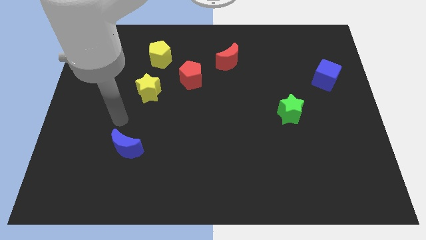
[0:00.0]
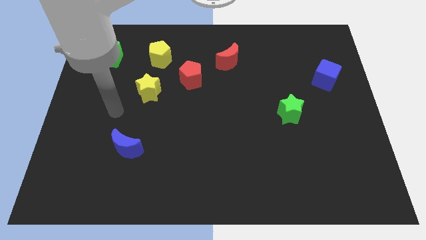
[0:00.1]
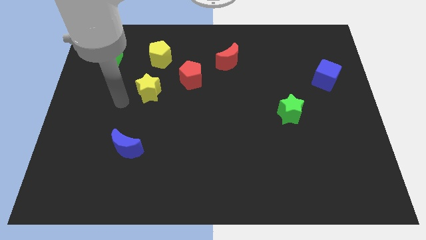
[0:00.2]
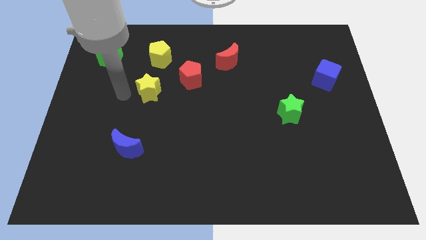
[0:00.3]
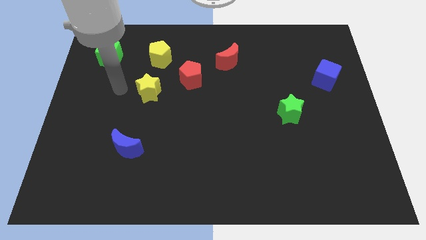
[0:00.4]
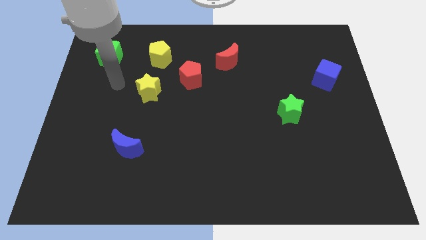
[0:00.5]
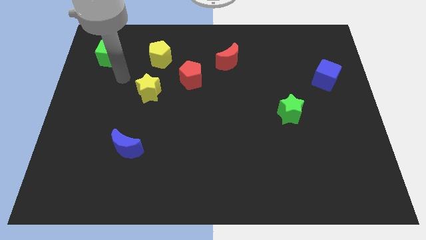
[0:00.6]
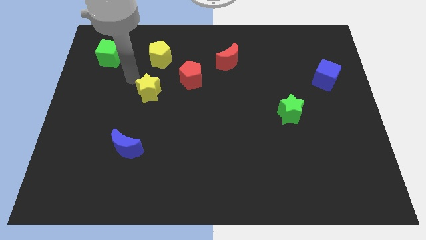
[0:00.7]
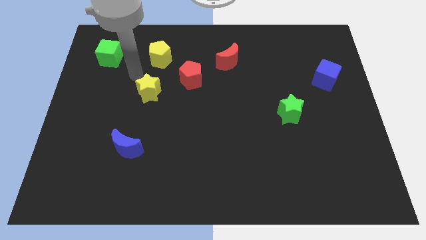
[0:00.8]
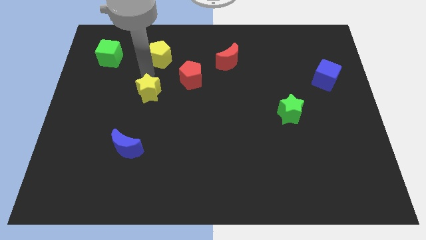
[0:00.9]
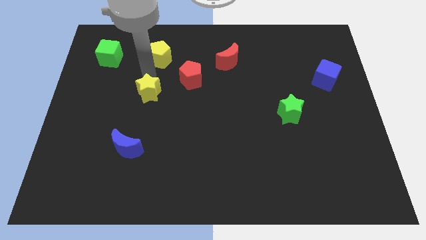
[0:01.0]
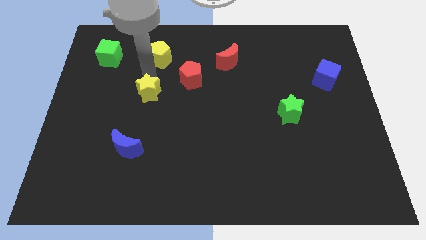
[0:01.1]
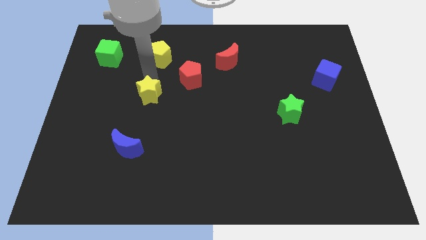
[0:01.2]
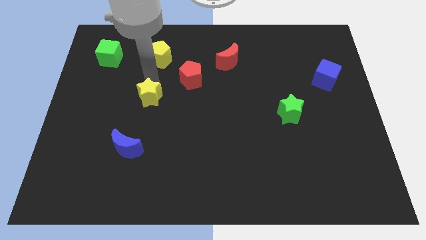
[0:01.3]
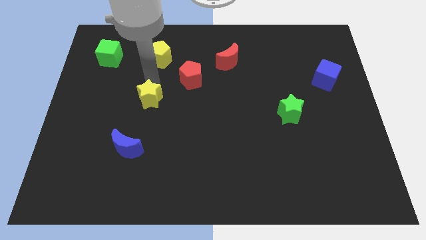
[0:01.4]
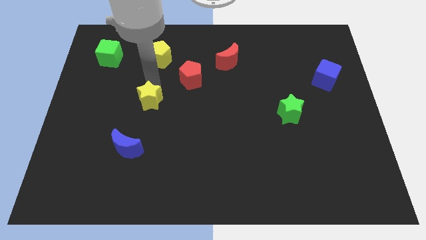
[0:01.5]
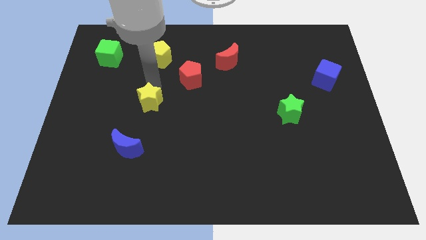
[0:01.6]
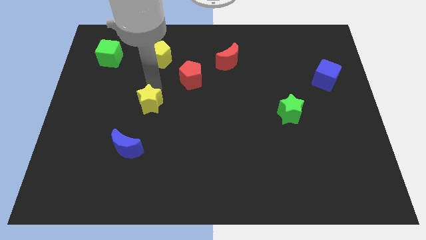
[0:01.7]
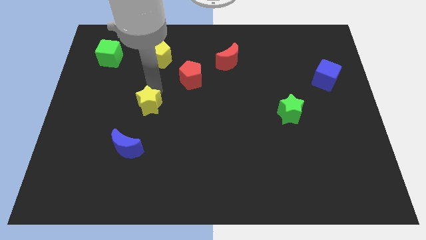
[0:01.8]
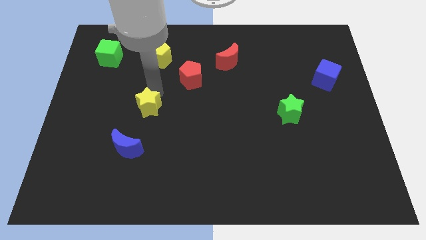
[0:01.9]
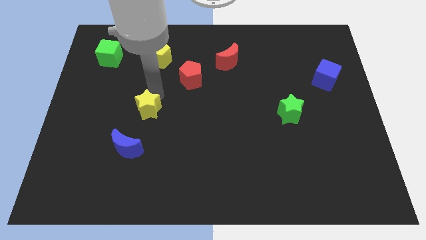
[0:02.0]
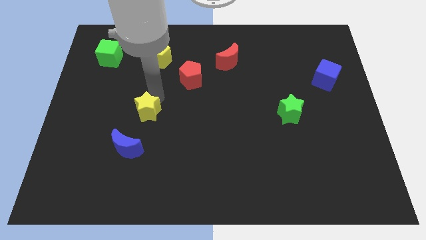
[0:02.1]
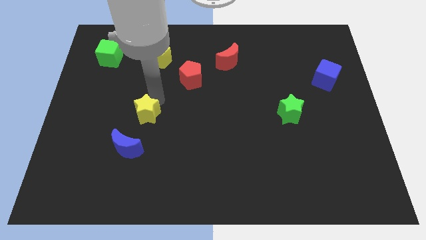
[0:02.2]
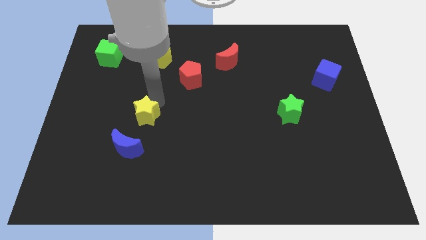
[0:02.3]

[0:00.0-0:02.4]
push the yellow star down a little

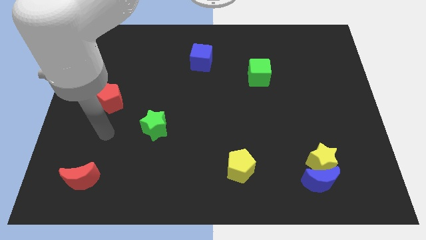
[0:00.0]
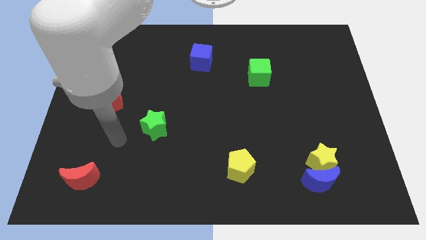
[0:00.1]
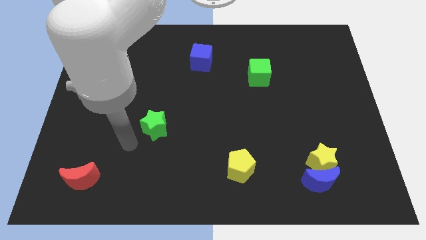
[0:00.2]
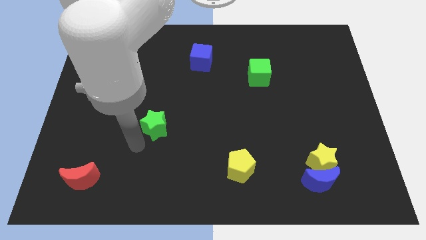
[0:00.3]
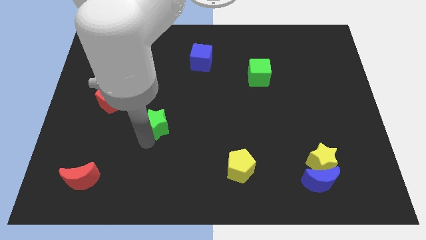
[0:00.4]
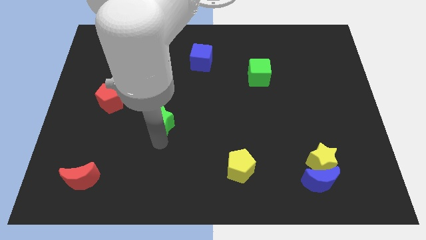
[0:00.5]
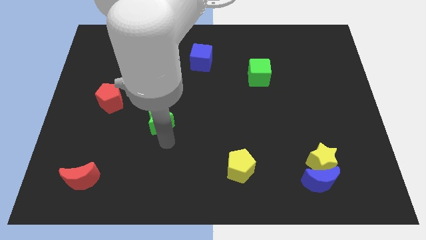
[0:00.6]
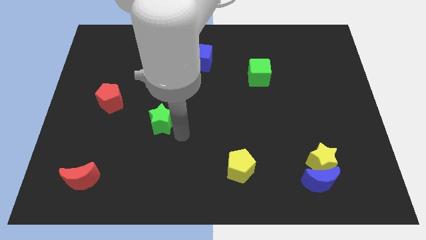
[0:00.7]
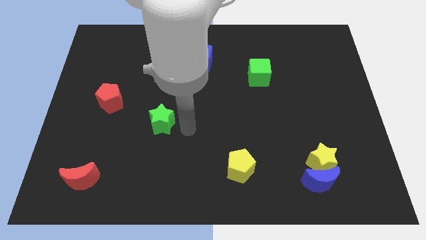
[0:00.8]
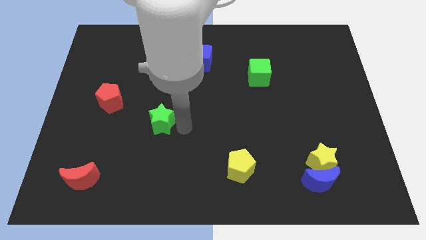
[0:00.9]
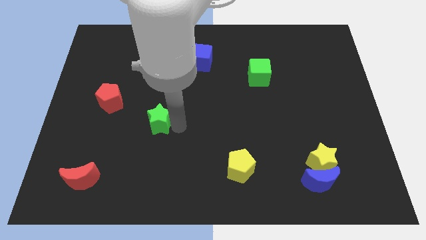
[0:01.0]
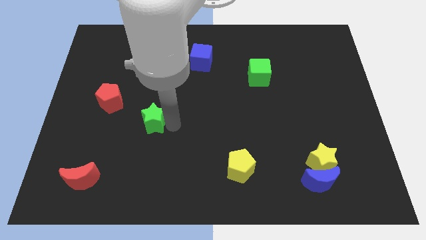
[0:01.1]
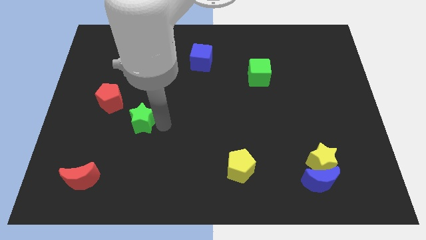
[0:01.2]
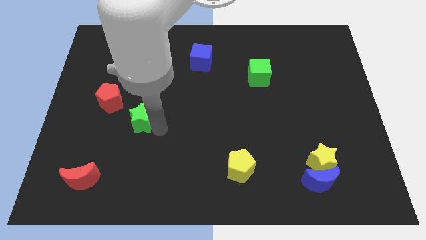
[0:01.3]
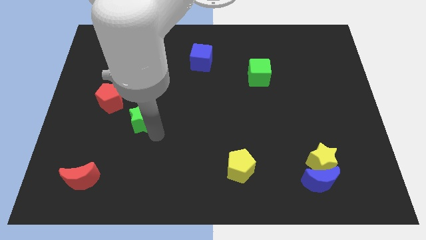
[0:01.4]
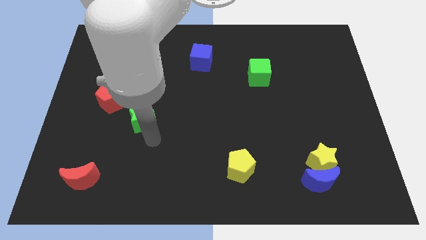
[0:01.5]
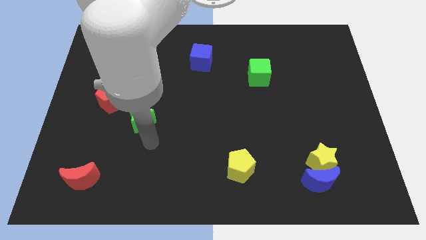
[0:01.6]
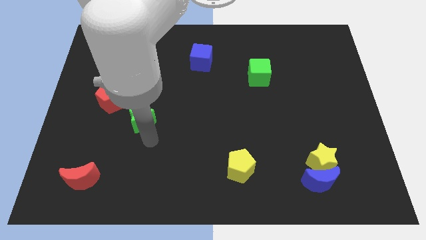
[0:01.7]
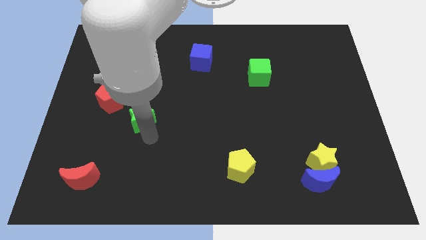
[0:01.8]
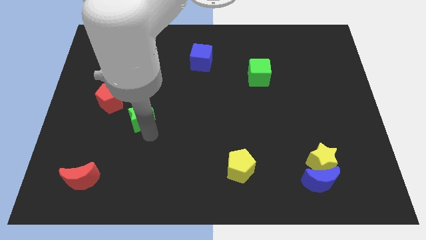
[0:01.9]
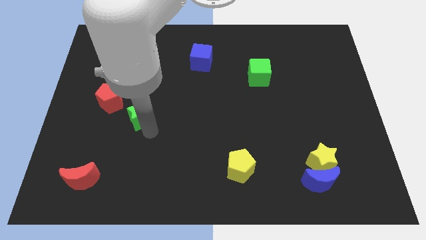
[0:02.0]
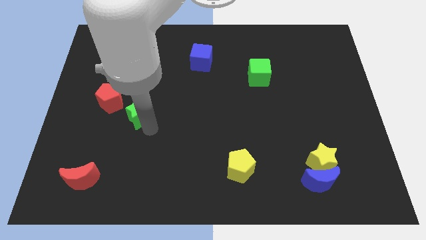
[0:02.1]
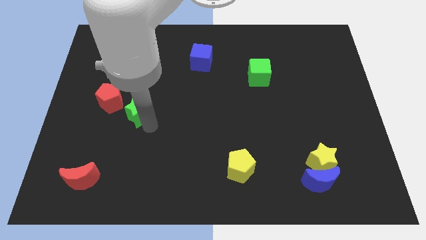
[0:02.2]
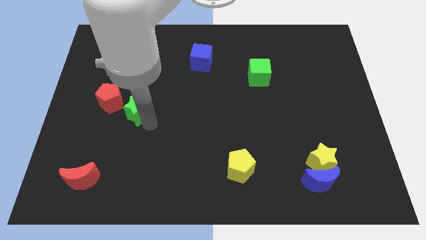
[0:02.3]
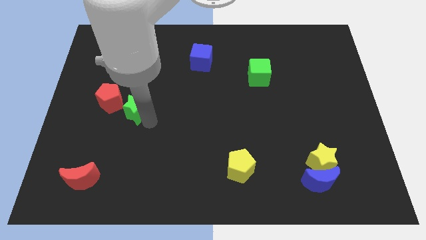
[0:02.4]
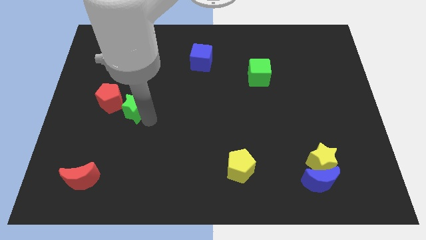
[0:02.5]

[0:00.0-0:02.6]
slide the green star a bit diagonally up and to the left

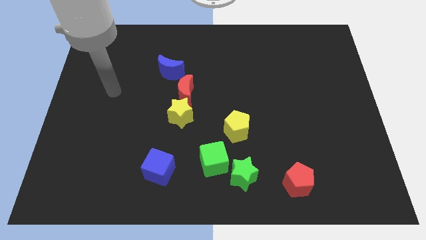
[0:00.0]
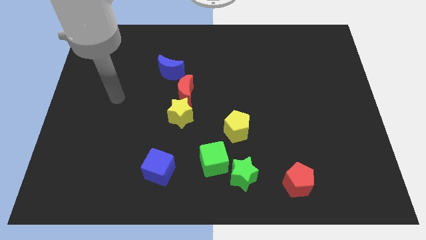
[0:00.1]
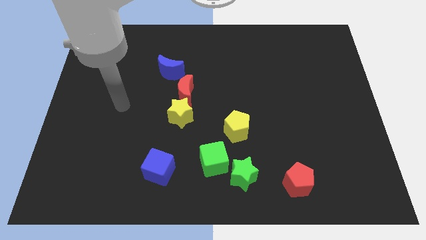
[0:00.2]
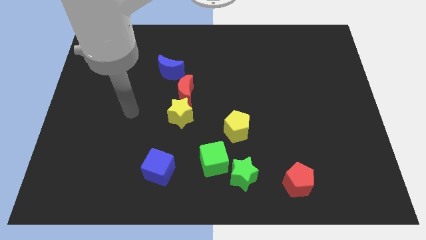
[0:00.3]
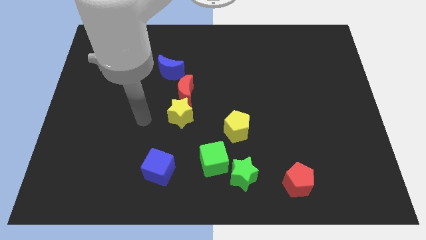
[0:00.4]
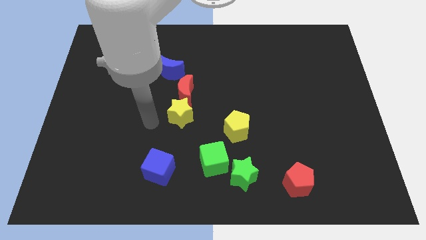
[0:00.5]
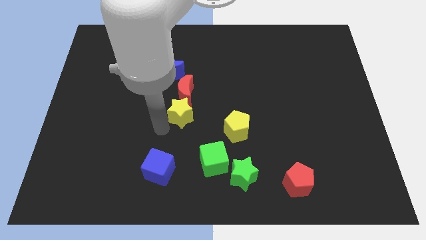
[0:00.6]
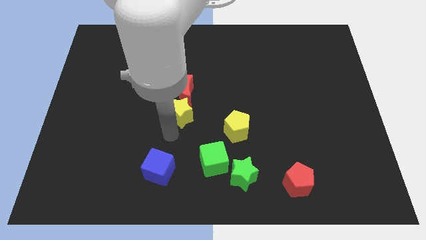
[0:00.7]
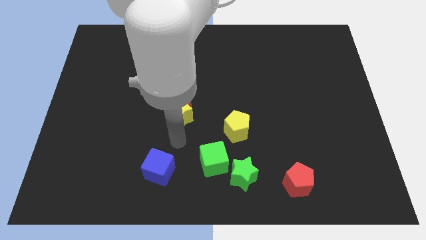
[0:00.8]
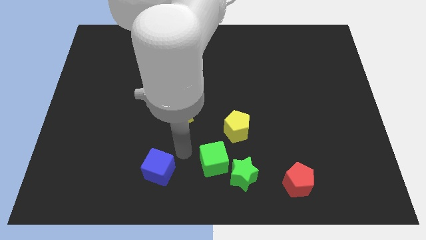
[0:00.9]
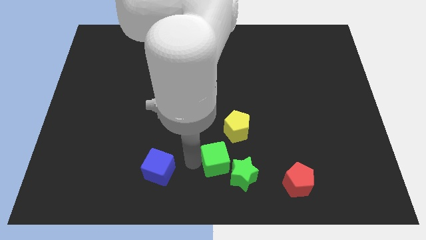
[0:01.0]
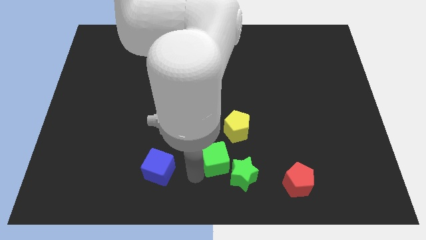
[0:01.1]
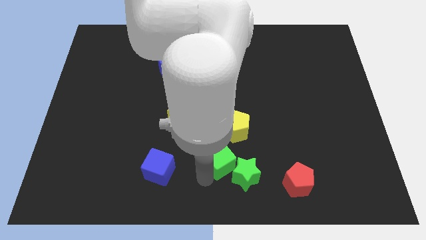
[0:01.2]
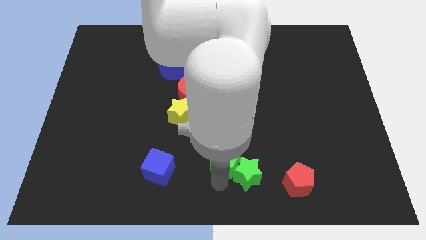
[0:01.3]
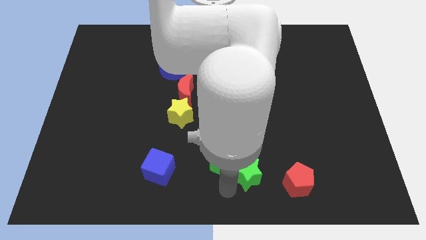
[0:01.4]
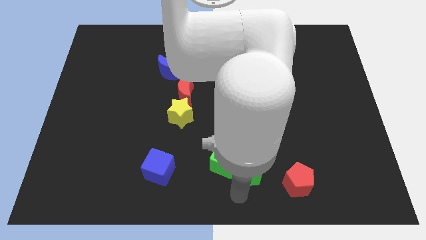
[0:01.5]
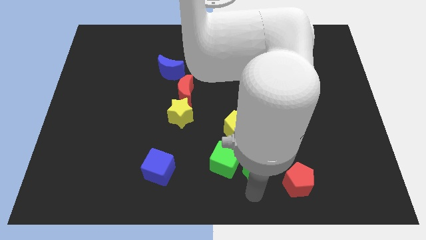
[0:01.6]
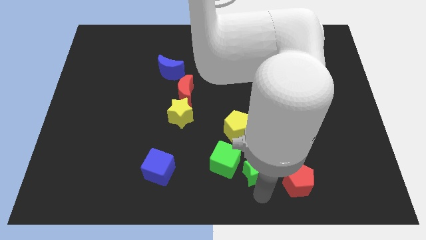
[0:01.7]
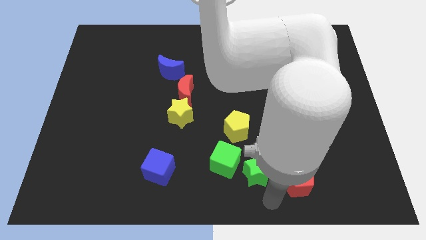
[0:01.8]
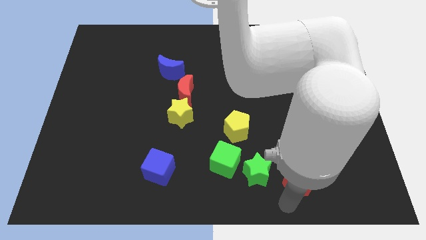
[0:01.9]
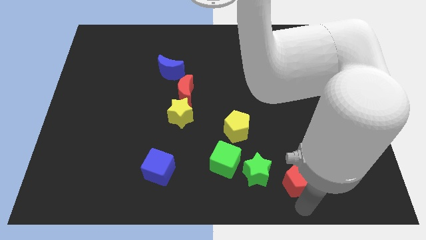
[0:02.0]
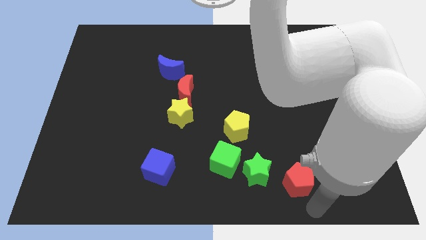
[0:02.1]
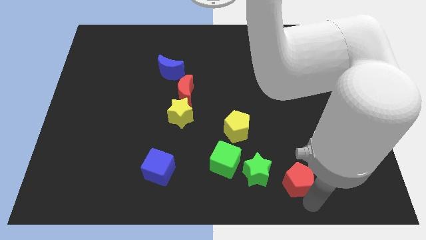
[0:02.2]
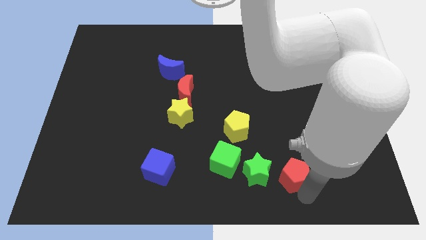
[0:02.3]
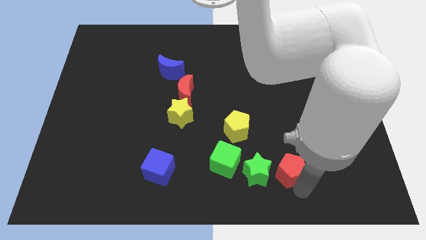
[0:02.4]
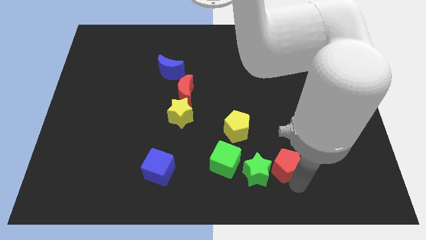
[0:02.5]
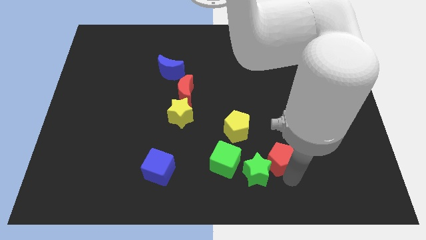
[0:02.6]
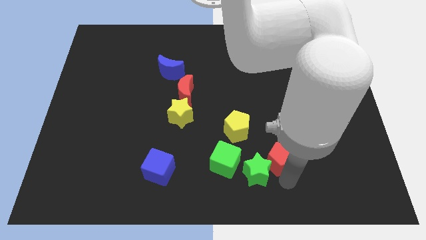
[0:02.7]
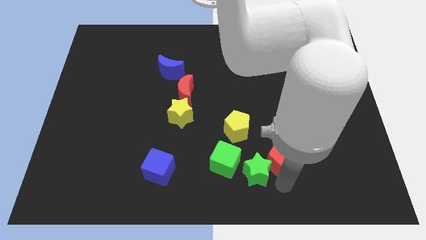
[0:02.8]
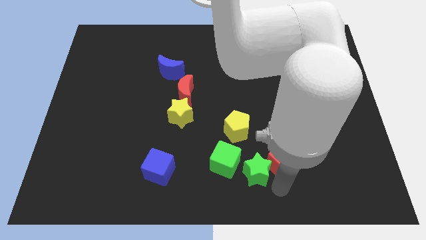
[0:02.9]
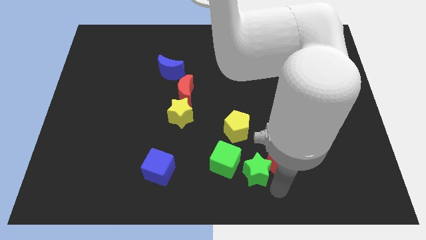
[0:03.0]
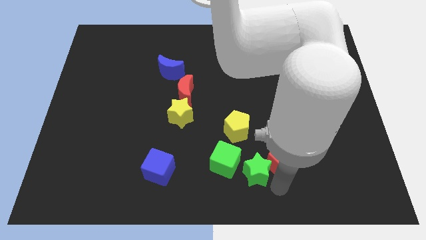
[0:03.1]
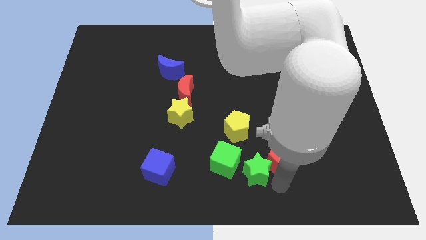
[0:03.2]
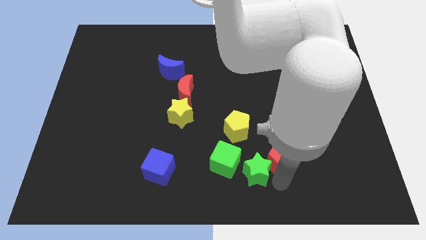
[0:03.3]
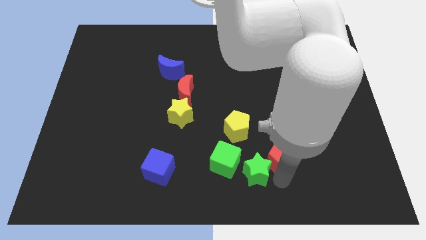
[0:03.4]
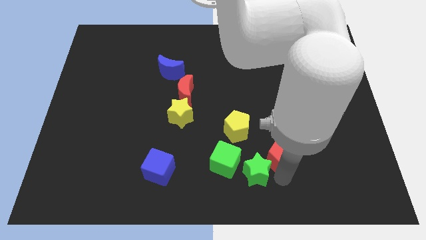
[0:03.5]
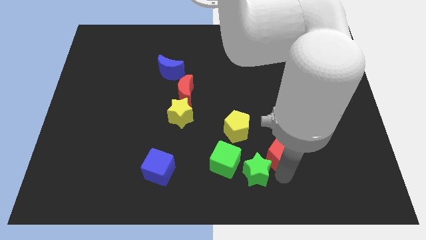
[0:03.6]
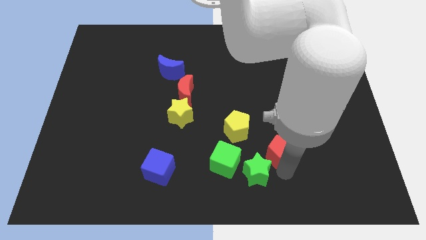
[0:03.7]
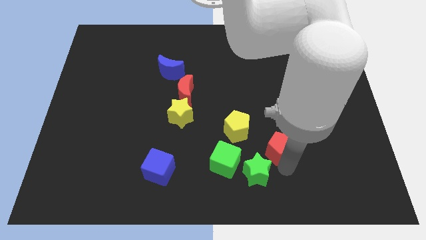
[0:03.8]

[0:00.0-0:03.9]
slightly push the red pentagon upwards
